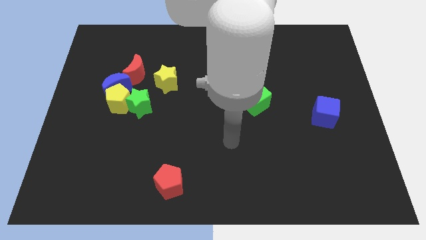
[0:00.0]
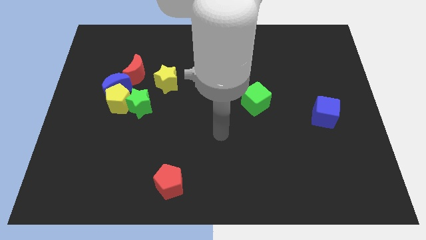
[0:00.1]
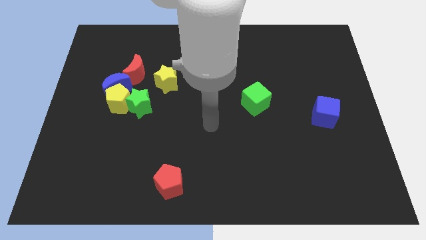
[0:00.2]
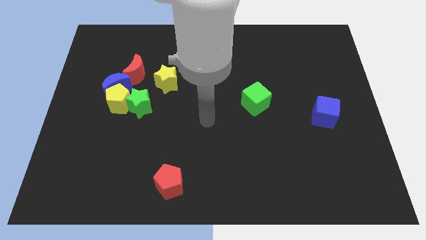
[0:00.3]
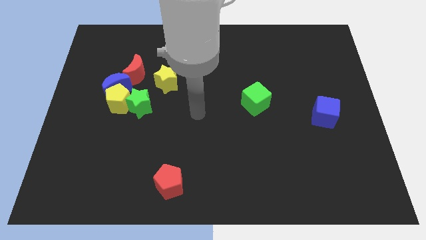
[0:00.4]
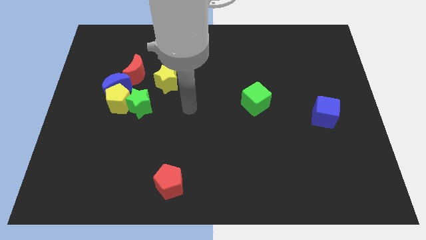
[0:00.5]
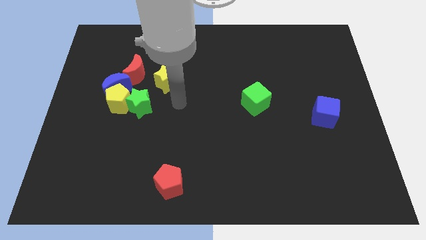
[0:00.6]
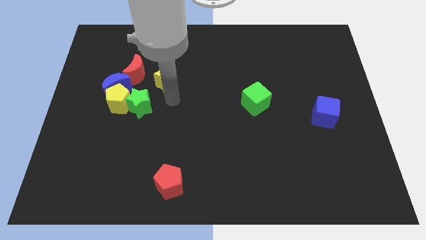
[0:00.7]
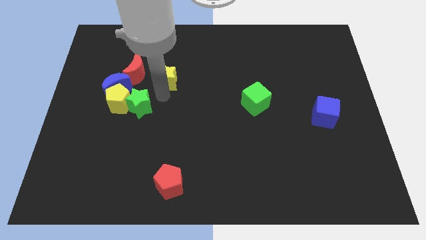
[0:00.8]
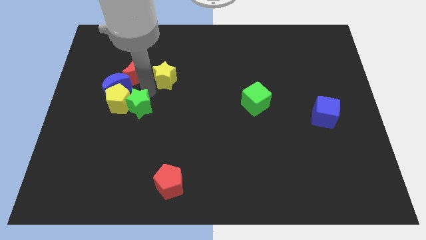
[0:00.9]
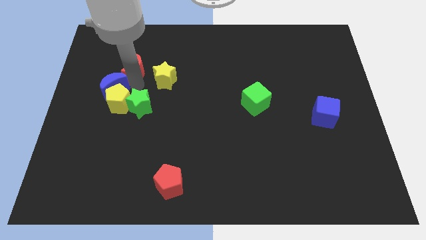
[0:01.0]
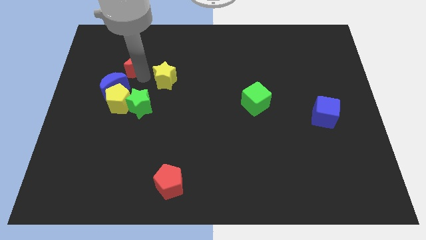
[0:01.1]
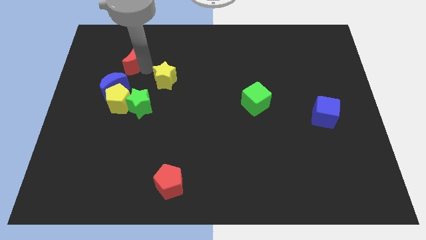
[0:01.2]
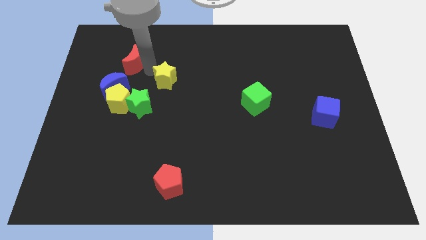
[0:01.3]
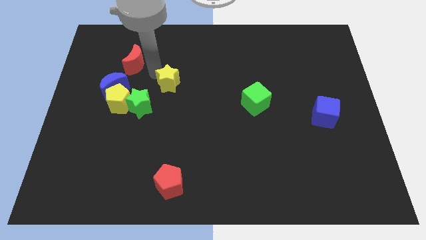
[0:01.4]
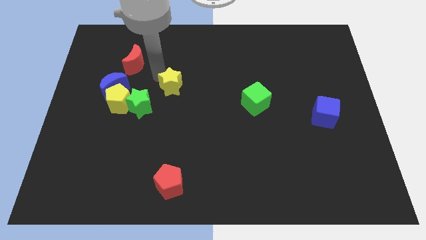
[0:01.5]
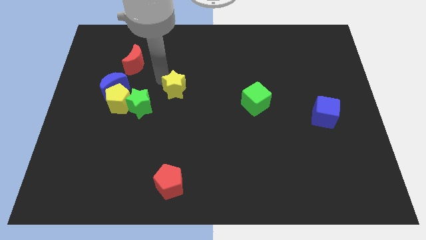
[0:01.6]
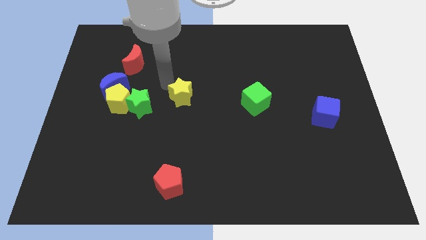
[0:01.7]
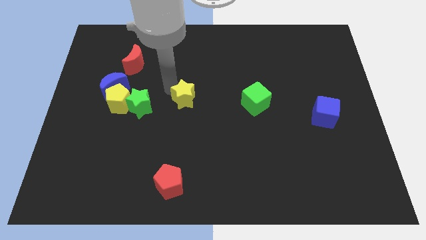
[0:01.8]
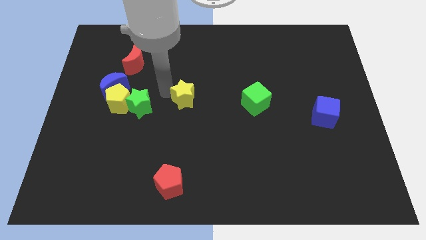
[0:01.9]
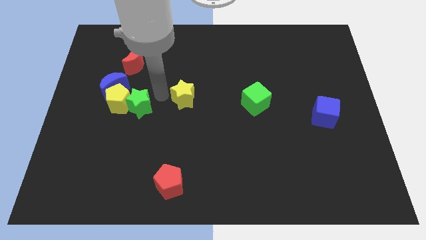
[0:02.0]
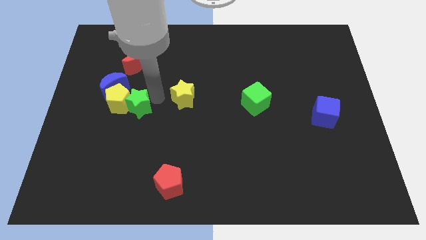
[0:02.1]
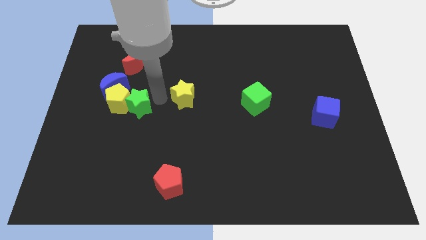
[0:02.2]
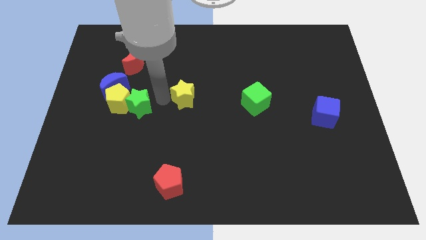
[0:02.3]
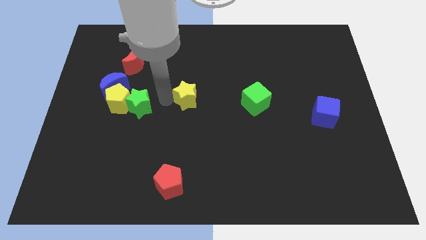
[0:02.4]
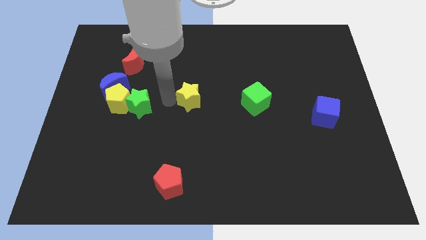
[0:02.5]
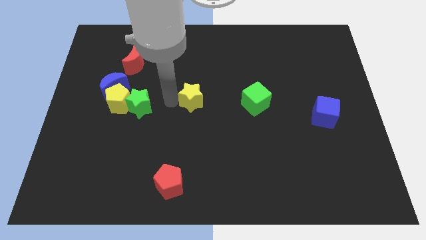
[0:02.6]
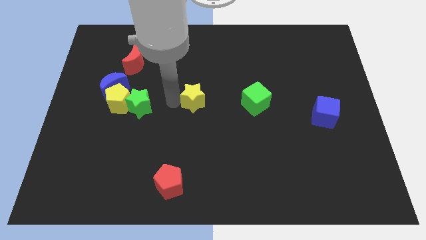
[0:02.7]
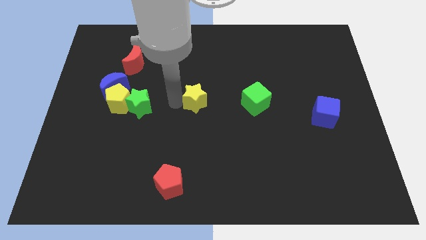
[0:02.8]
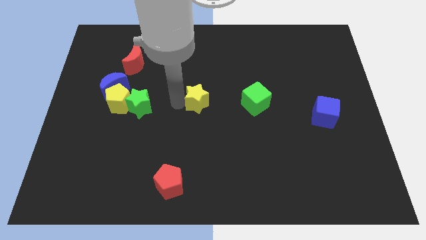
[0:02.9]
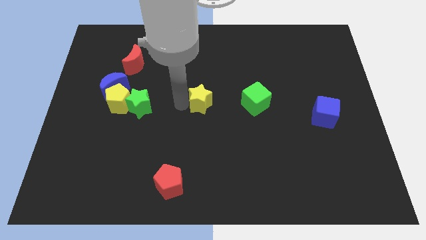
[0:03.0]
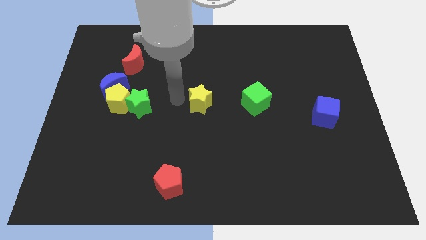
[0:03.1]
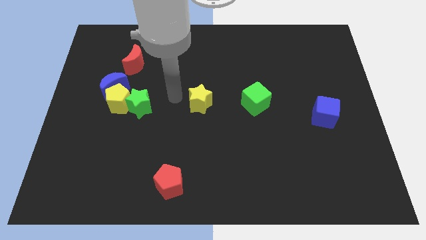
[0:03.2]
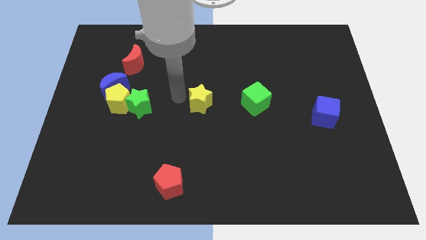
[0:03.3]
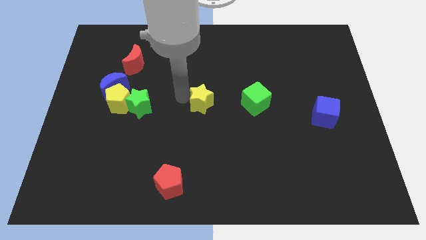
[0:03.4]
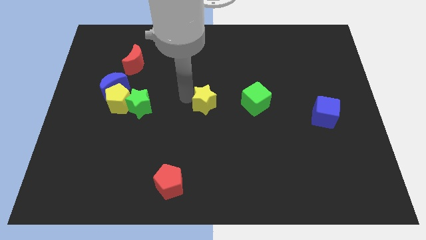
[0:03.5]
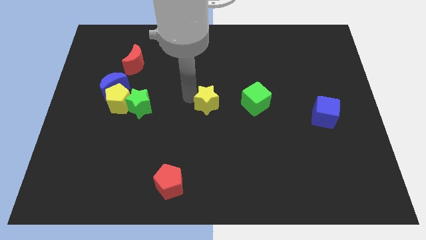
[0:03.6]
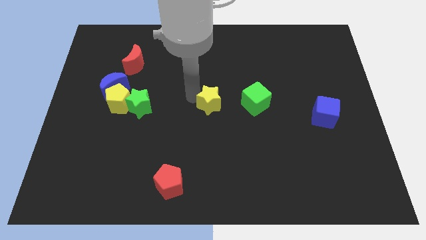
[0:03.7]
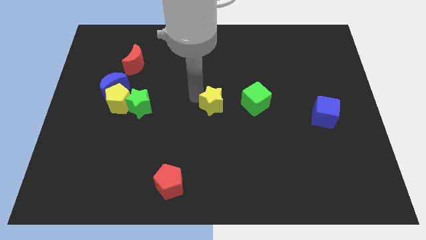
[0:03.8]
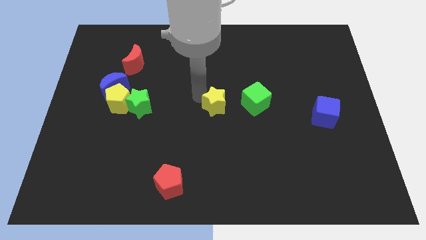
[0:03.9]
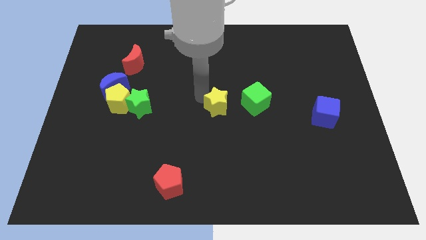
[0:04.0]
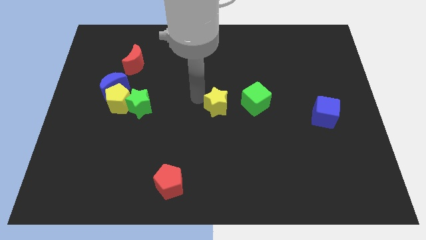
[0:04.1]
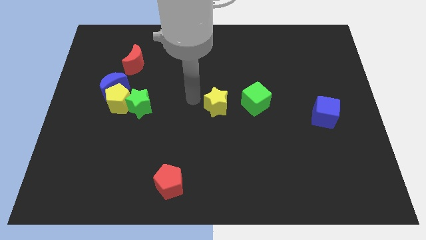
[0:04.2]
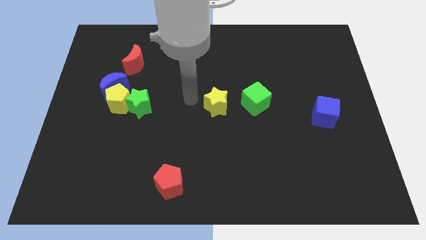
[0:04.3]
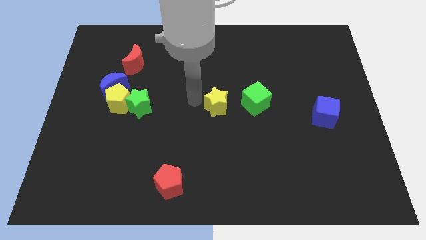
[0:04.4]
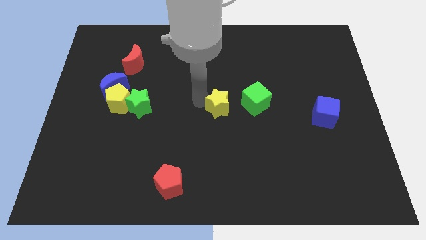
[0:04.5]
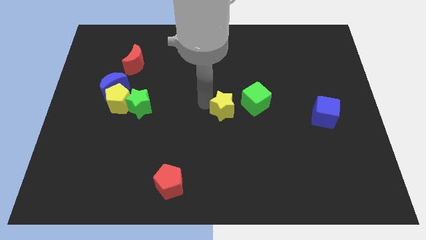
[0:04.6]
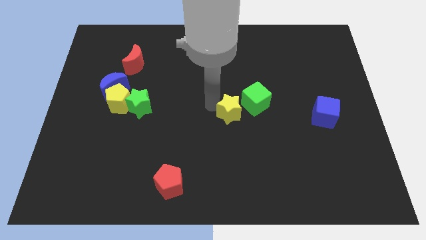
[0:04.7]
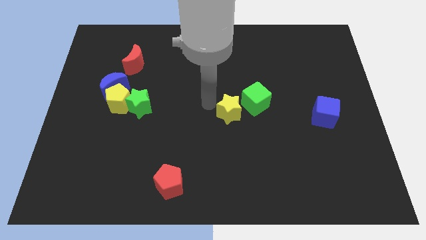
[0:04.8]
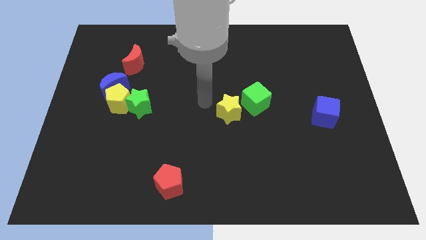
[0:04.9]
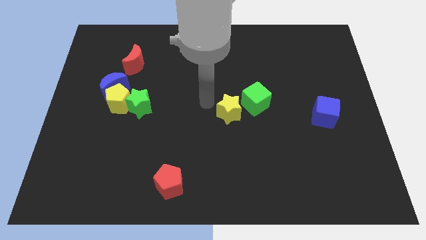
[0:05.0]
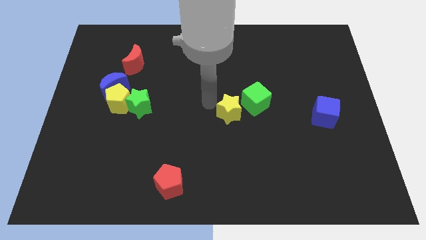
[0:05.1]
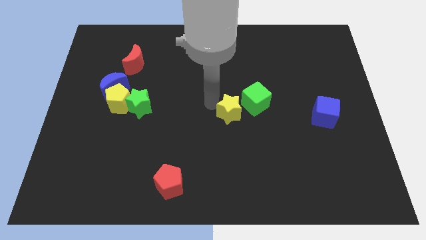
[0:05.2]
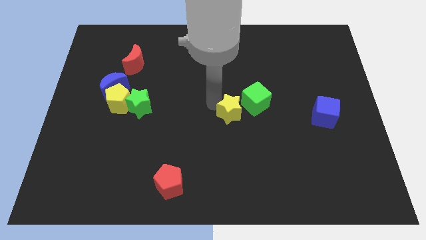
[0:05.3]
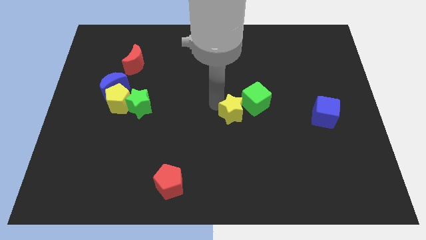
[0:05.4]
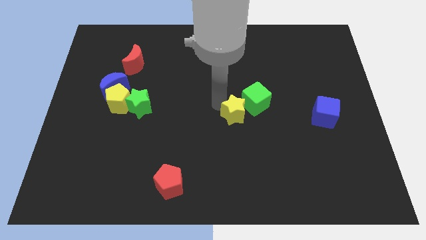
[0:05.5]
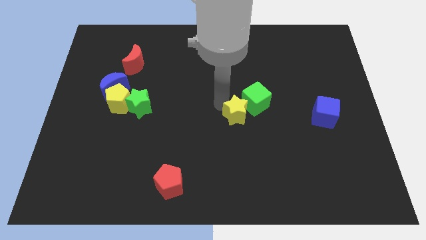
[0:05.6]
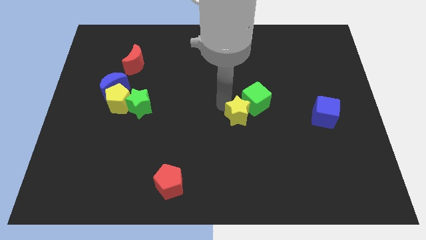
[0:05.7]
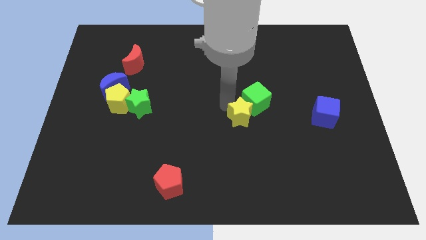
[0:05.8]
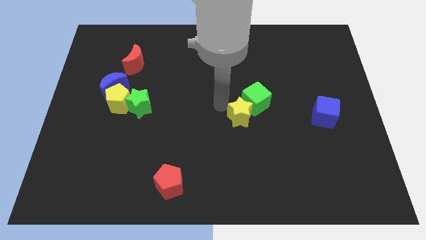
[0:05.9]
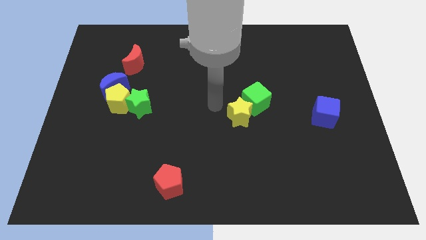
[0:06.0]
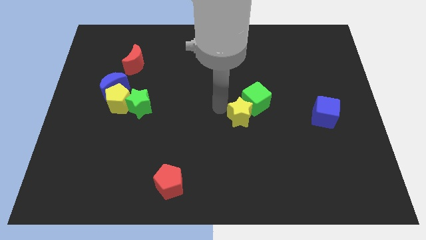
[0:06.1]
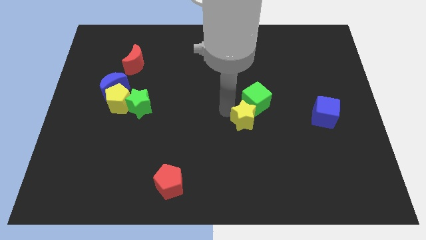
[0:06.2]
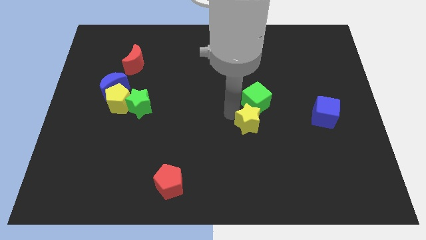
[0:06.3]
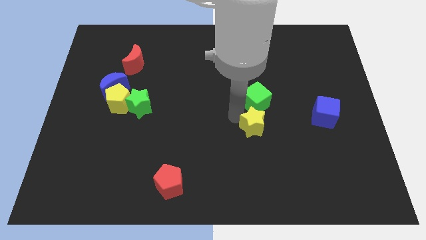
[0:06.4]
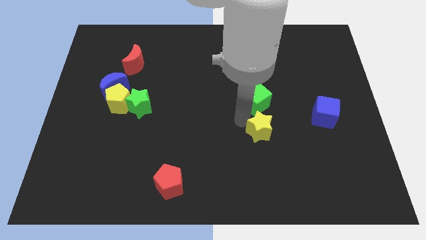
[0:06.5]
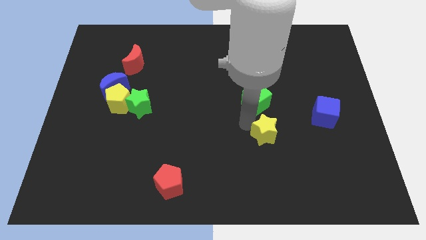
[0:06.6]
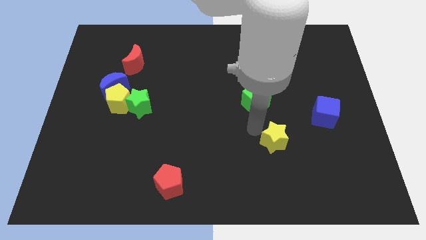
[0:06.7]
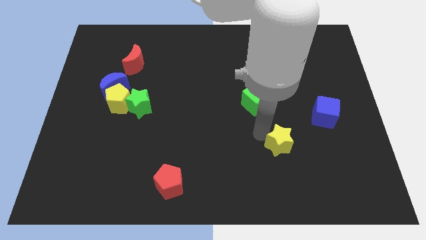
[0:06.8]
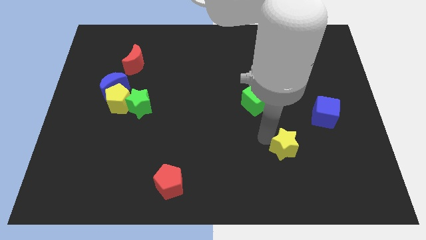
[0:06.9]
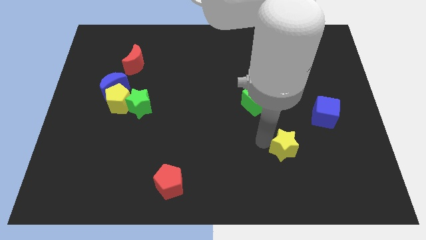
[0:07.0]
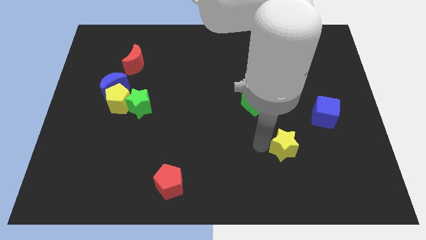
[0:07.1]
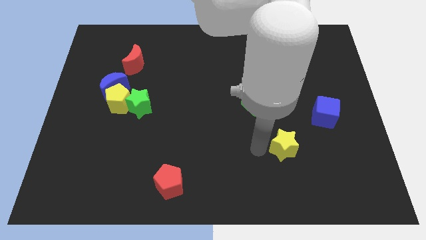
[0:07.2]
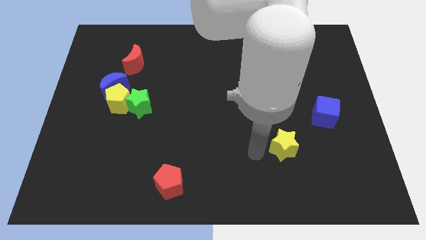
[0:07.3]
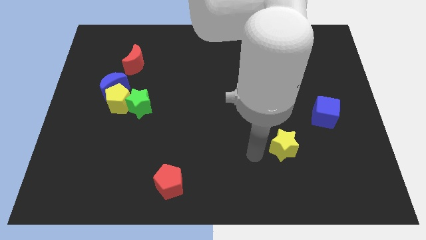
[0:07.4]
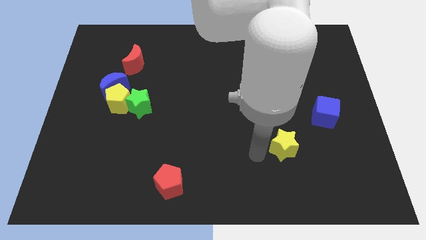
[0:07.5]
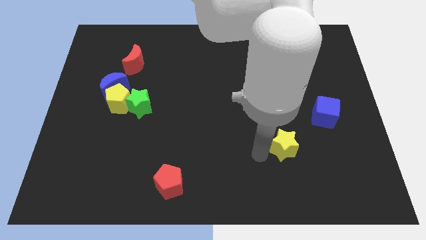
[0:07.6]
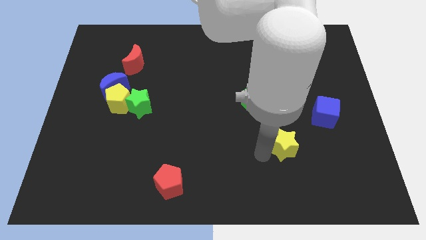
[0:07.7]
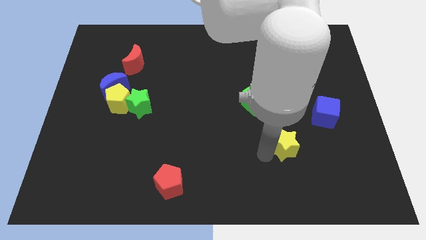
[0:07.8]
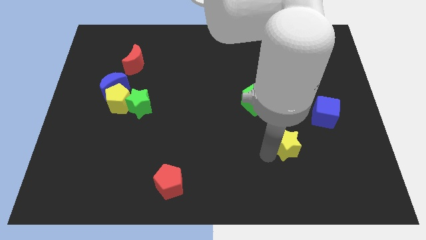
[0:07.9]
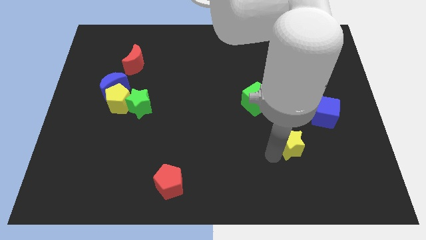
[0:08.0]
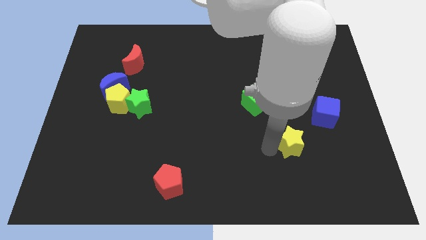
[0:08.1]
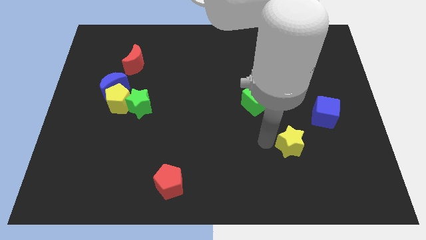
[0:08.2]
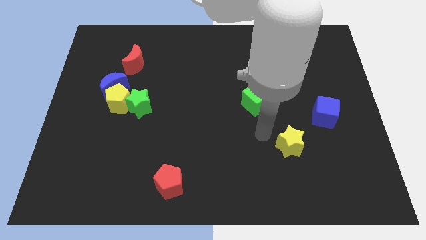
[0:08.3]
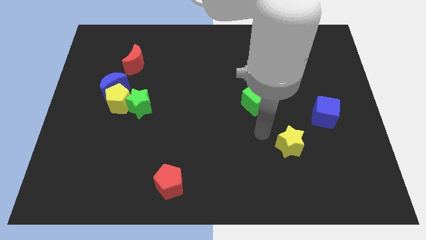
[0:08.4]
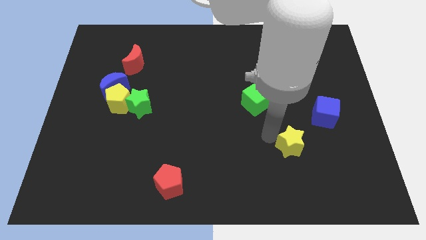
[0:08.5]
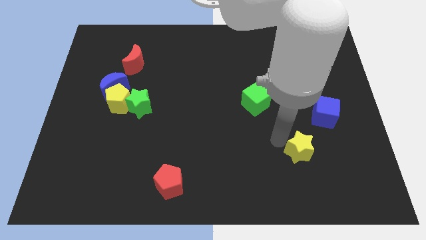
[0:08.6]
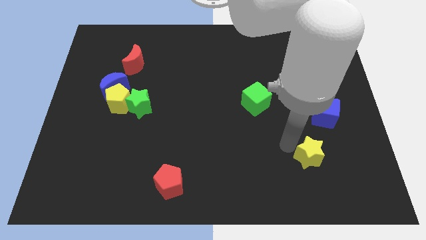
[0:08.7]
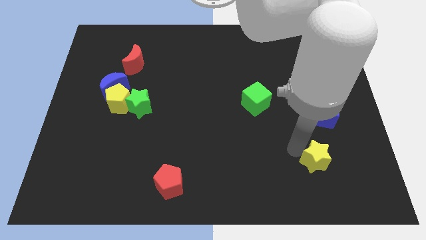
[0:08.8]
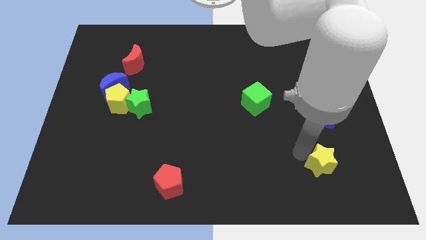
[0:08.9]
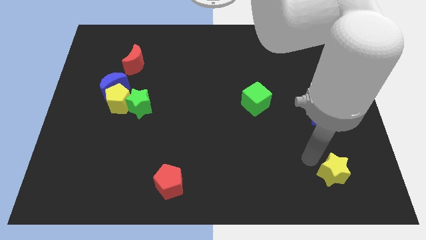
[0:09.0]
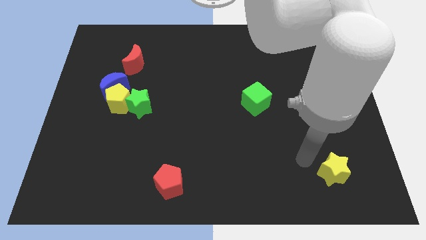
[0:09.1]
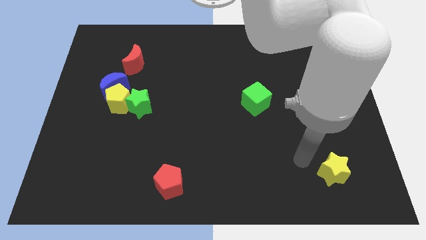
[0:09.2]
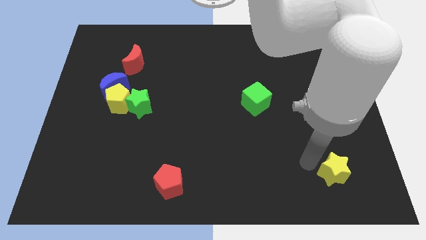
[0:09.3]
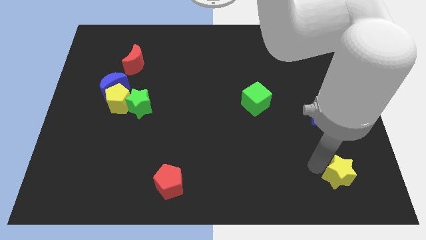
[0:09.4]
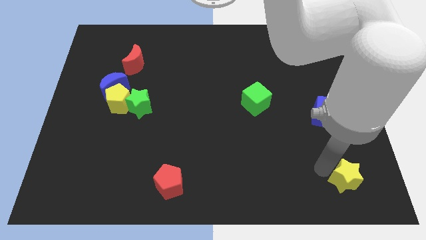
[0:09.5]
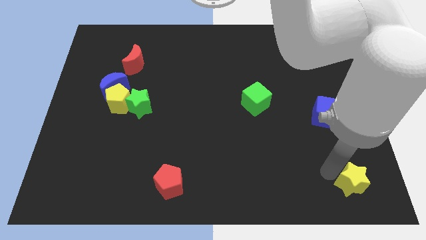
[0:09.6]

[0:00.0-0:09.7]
slide the yellow star to the bottom right of the board
